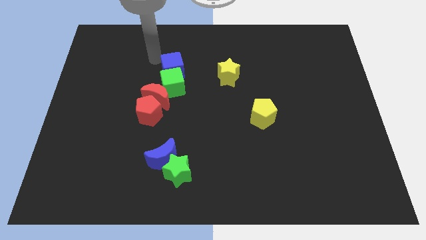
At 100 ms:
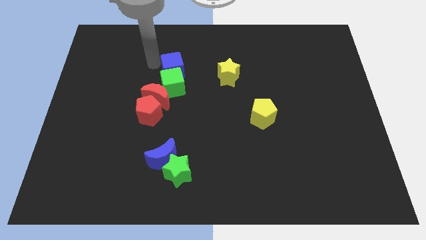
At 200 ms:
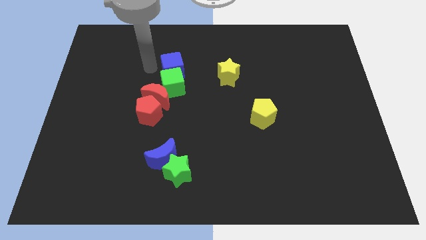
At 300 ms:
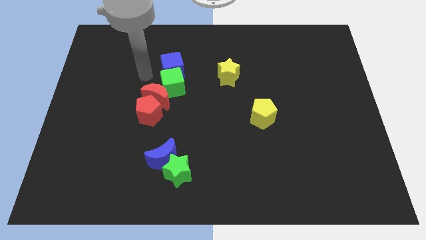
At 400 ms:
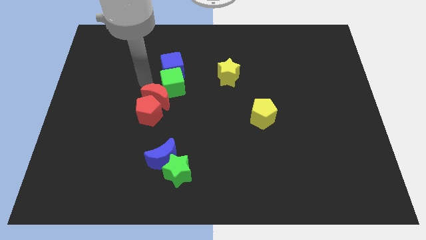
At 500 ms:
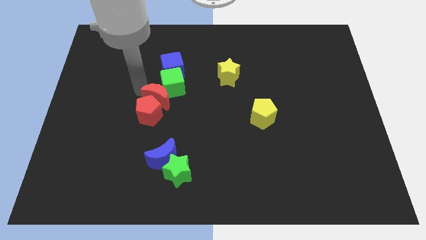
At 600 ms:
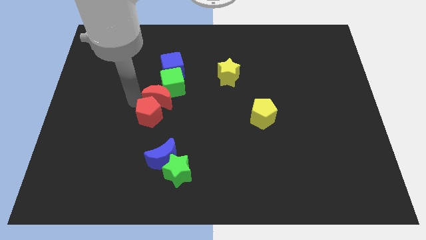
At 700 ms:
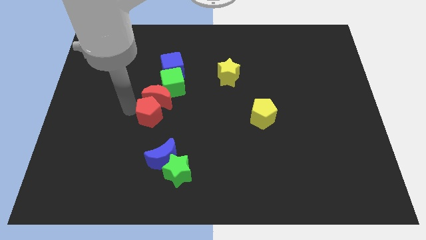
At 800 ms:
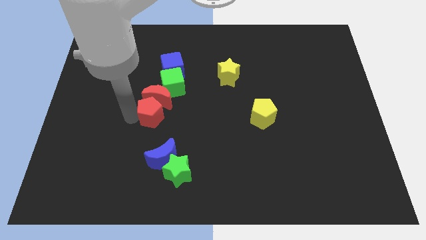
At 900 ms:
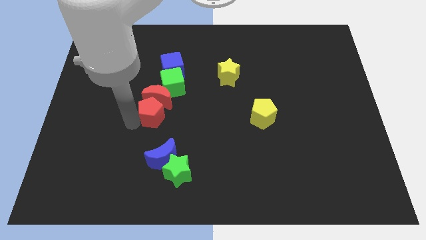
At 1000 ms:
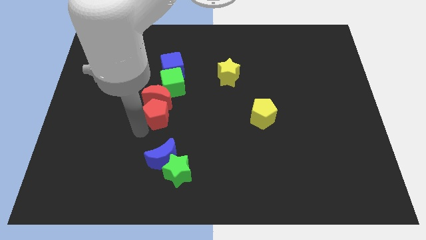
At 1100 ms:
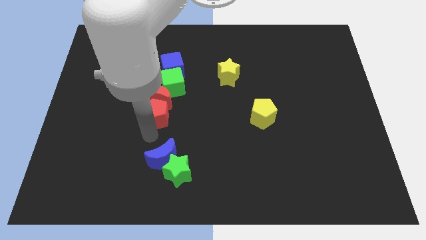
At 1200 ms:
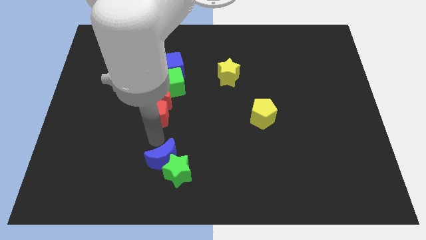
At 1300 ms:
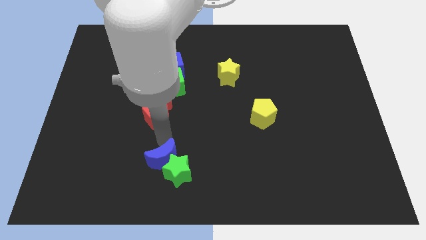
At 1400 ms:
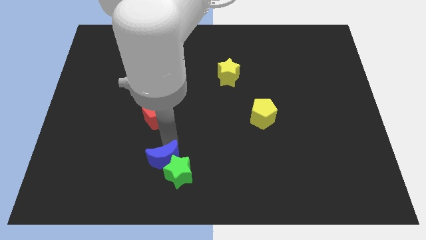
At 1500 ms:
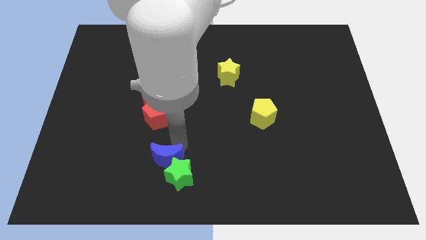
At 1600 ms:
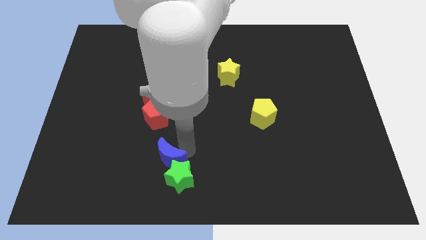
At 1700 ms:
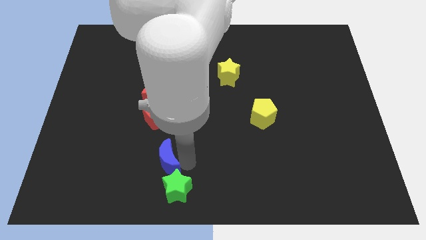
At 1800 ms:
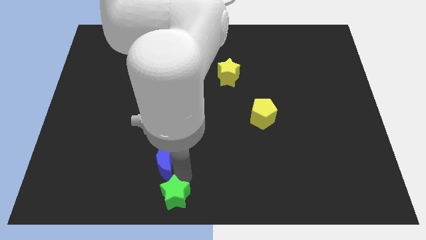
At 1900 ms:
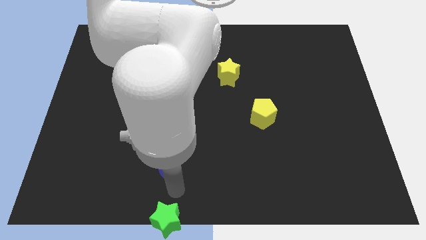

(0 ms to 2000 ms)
separate the blue moon from the green star

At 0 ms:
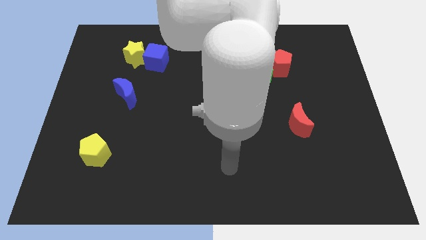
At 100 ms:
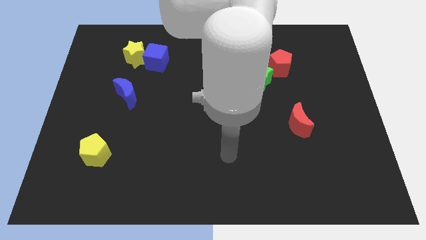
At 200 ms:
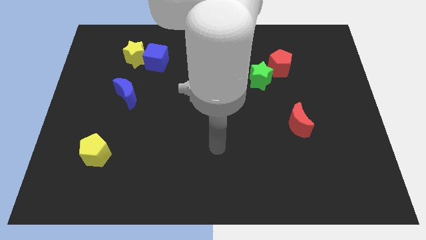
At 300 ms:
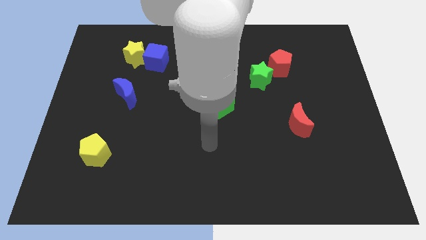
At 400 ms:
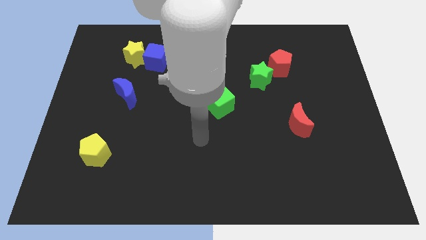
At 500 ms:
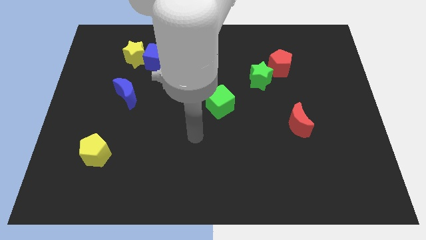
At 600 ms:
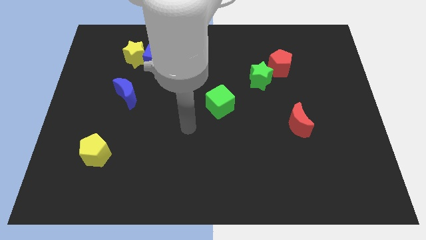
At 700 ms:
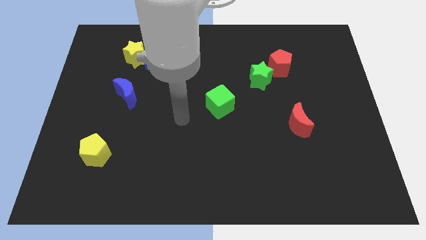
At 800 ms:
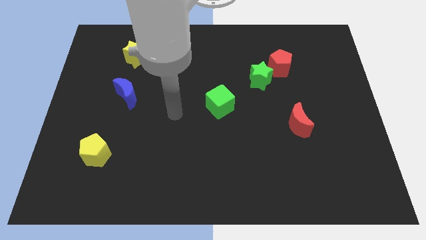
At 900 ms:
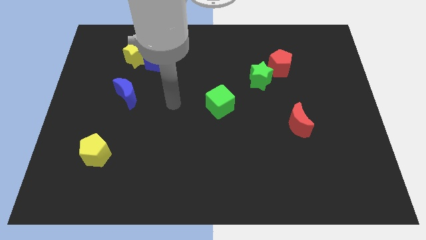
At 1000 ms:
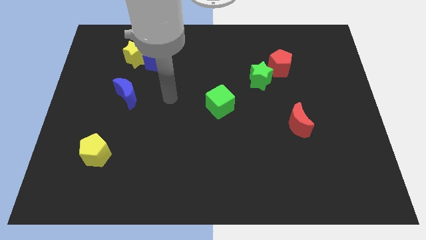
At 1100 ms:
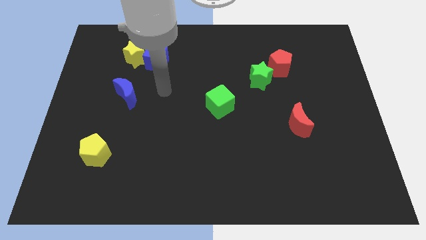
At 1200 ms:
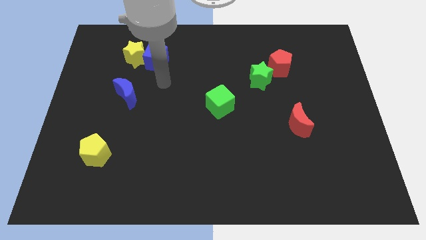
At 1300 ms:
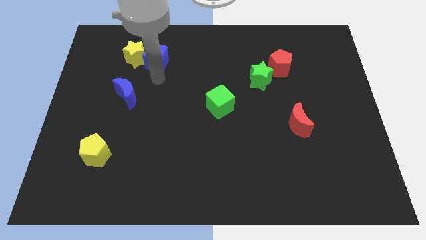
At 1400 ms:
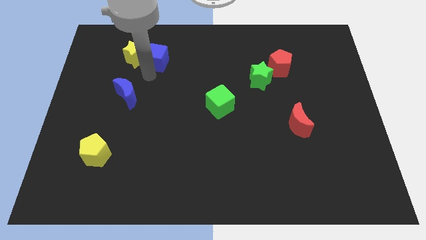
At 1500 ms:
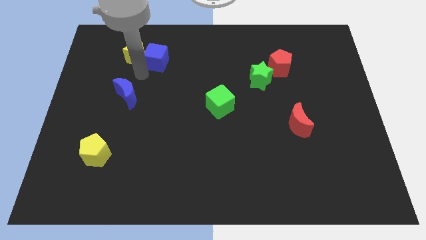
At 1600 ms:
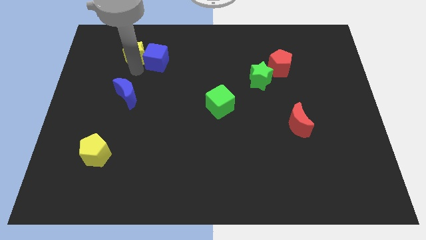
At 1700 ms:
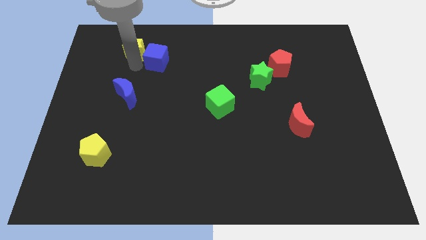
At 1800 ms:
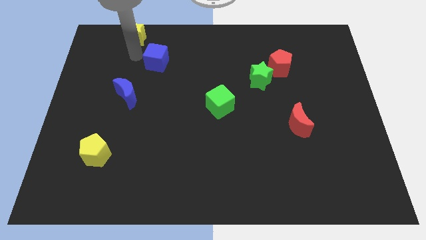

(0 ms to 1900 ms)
move the blue cube away from the yellow star

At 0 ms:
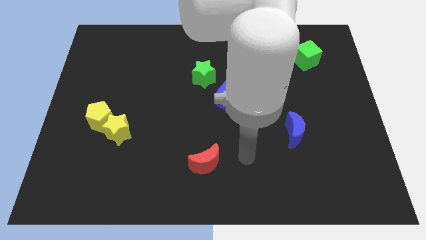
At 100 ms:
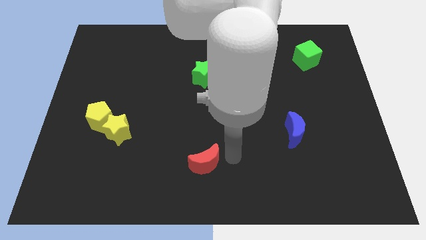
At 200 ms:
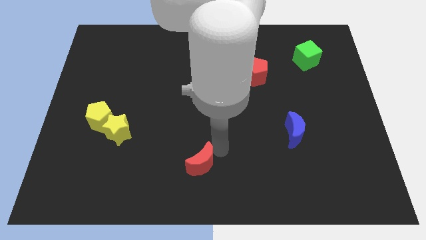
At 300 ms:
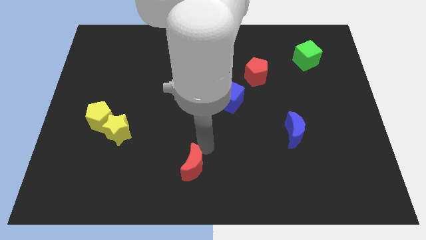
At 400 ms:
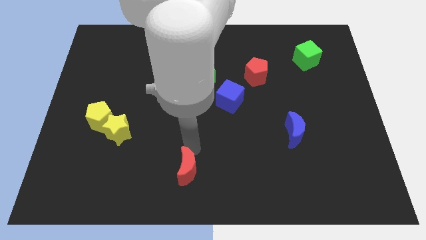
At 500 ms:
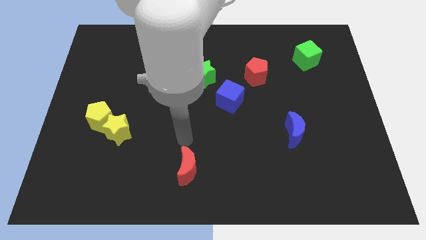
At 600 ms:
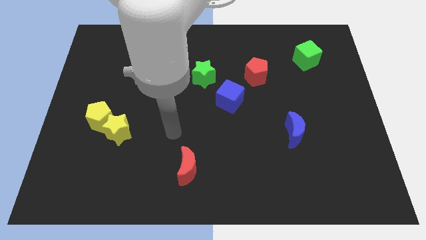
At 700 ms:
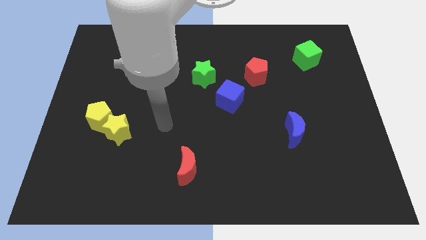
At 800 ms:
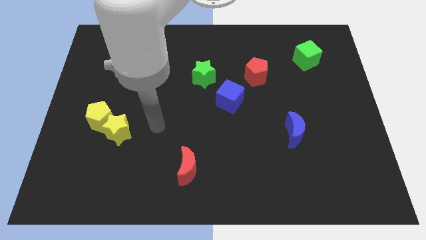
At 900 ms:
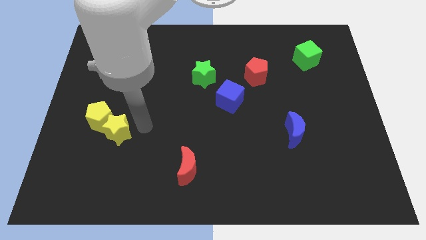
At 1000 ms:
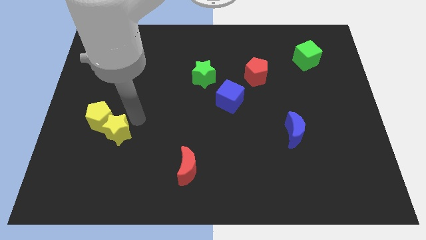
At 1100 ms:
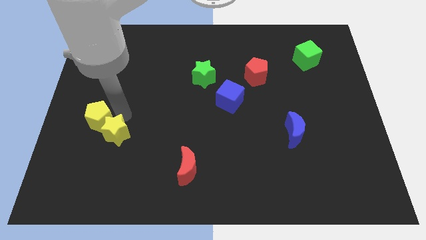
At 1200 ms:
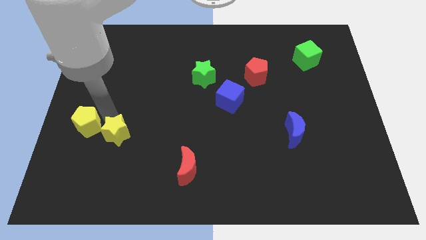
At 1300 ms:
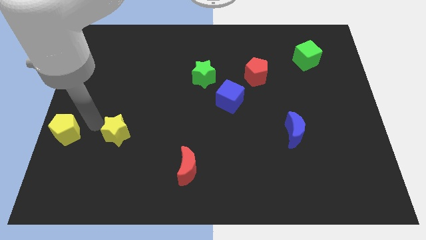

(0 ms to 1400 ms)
separate the yellow star from the yellow pentagon

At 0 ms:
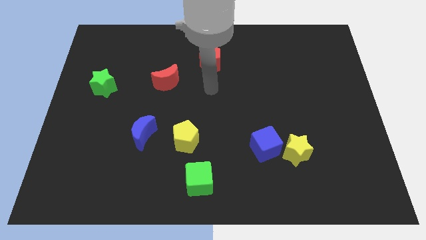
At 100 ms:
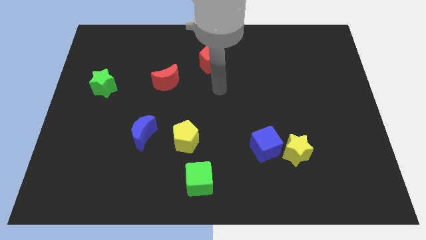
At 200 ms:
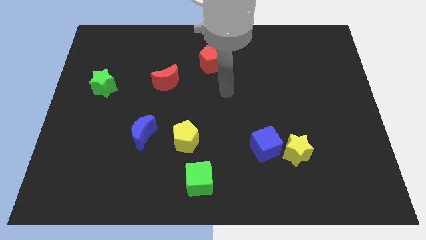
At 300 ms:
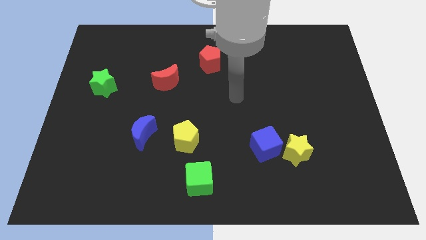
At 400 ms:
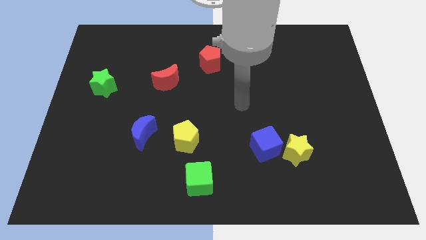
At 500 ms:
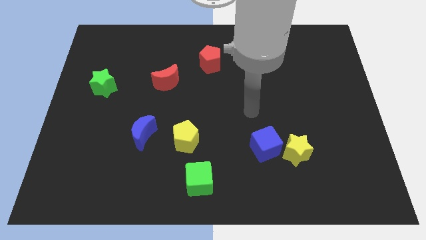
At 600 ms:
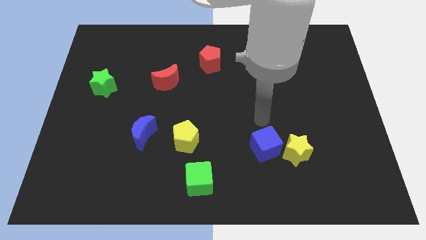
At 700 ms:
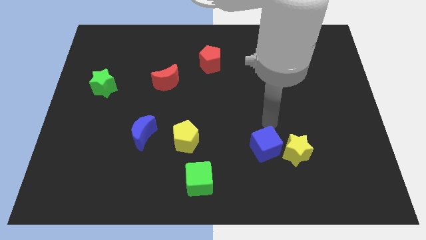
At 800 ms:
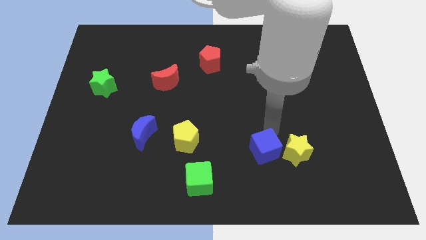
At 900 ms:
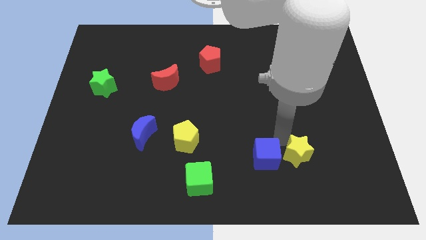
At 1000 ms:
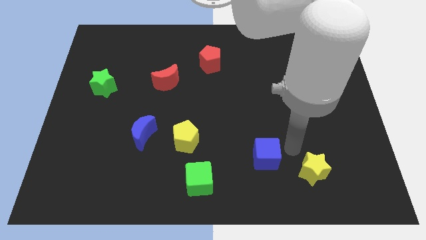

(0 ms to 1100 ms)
separate the blue cube from the yellow star

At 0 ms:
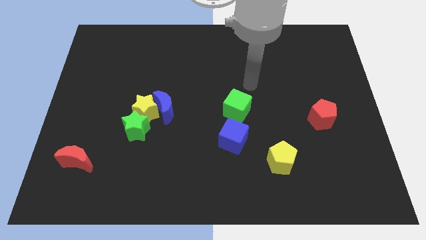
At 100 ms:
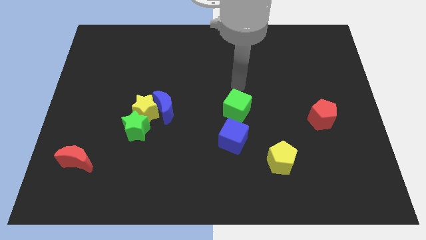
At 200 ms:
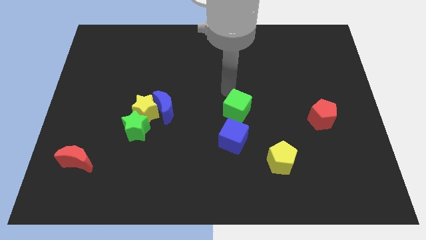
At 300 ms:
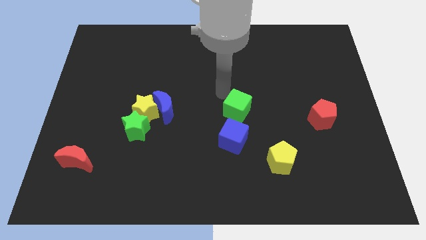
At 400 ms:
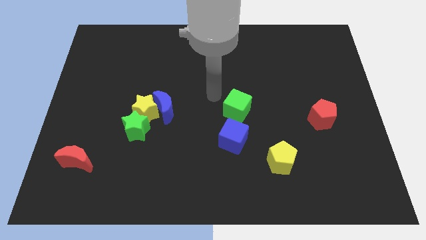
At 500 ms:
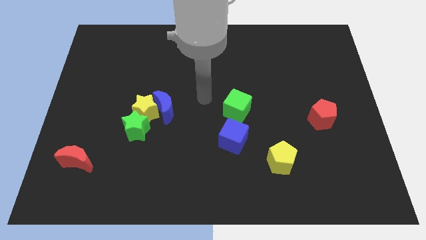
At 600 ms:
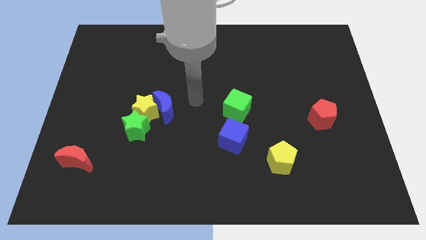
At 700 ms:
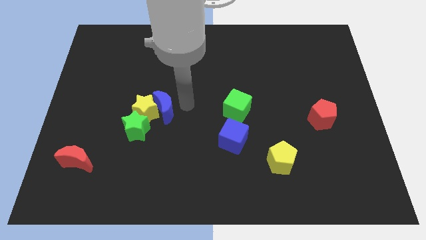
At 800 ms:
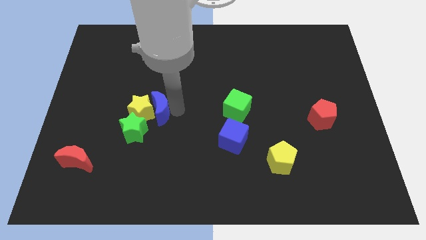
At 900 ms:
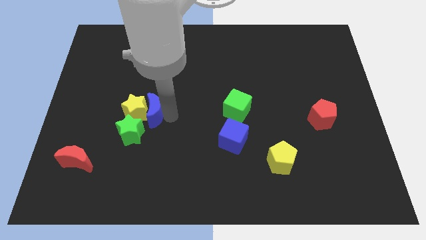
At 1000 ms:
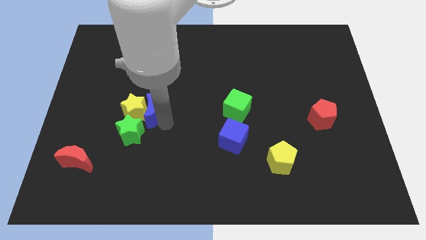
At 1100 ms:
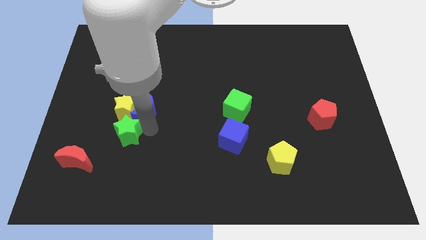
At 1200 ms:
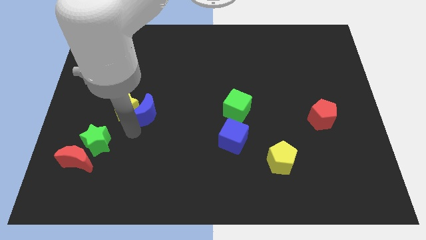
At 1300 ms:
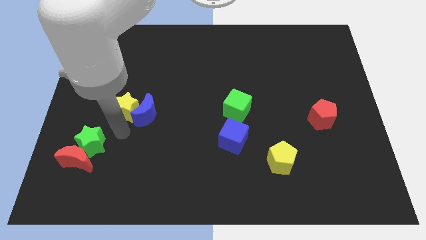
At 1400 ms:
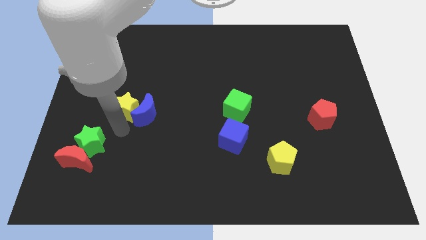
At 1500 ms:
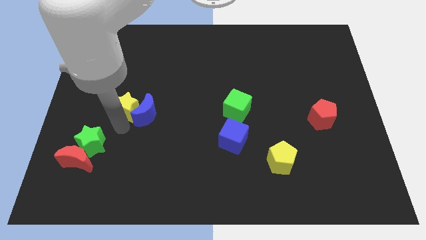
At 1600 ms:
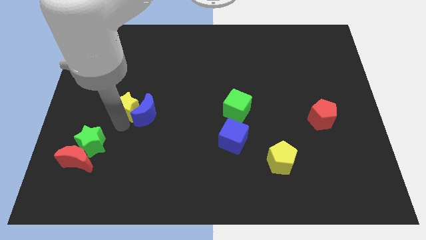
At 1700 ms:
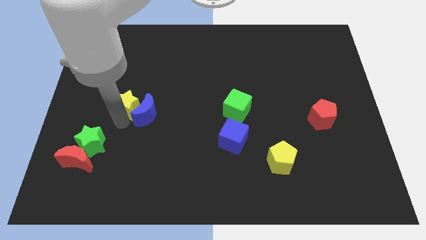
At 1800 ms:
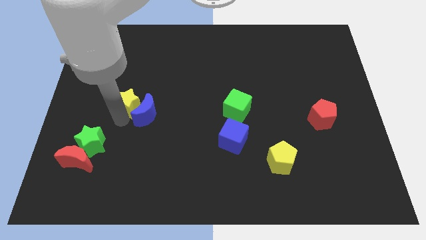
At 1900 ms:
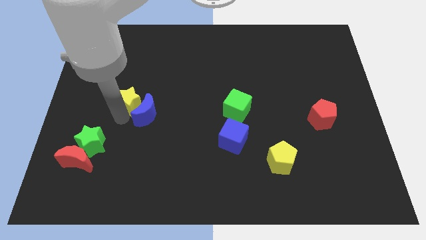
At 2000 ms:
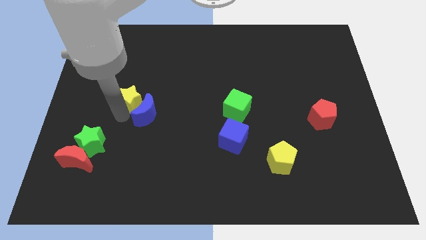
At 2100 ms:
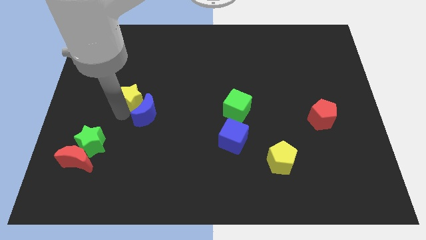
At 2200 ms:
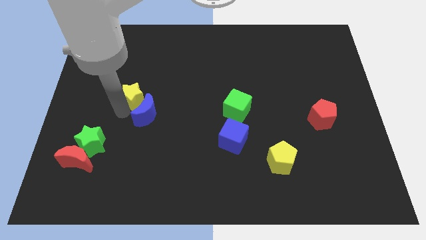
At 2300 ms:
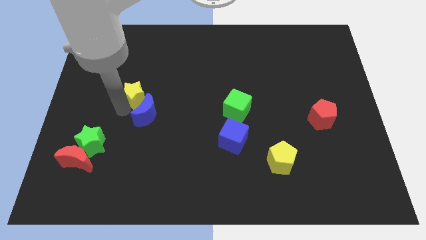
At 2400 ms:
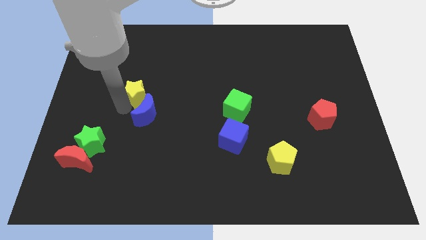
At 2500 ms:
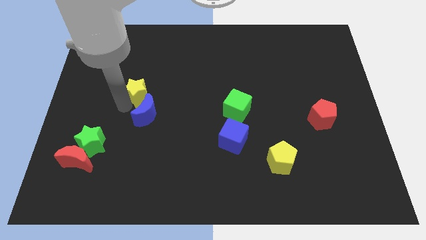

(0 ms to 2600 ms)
separate the yellow star from the blue moon and green star

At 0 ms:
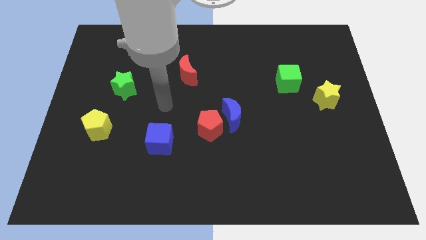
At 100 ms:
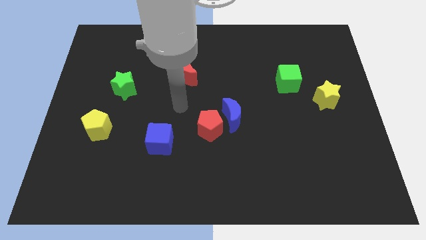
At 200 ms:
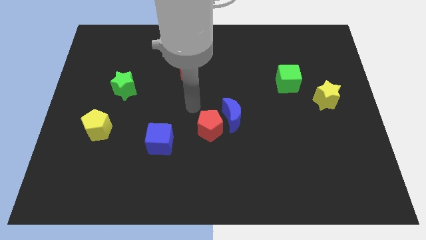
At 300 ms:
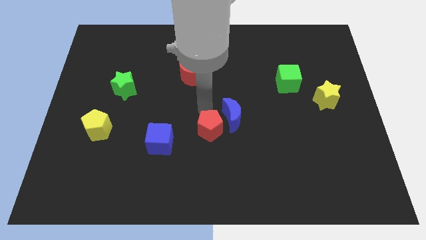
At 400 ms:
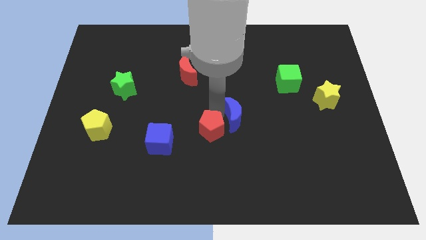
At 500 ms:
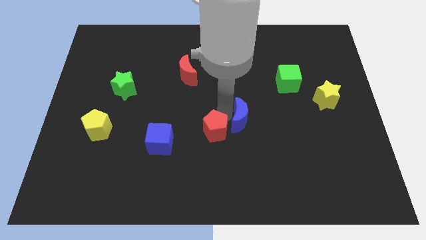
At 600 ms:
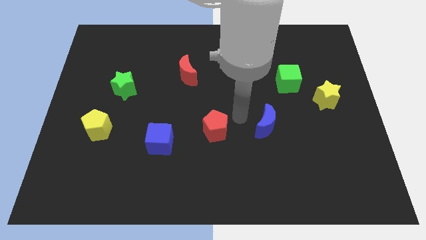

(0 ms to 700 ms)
move the red pentagon away from the blue moon
